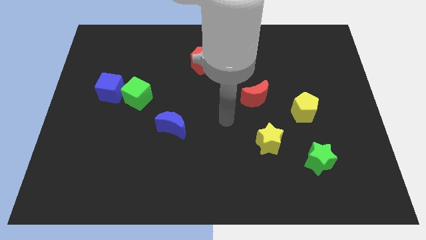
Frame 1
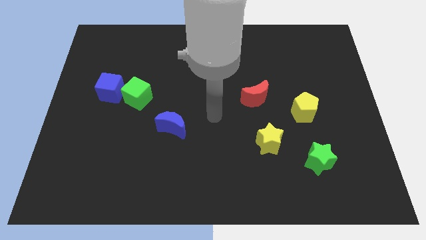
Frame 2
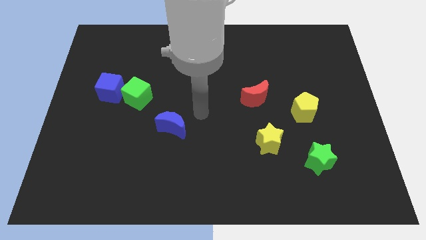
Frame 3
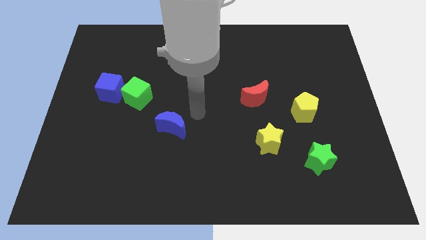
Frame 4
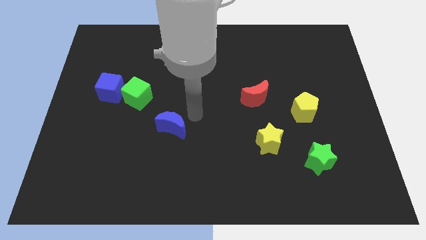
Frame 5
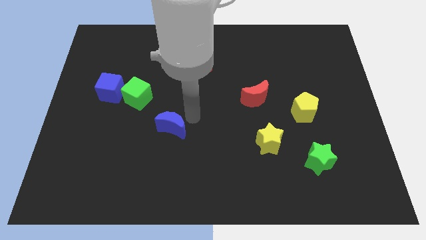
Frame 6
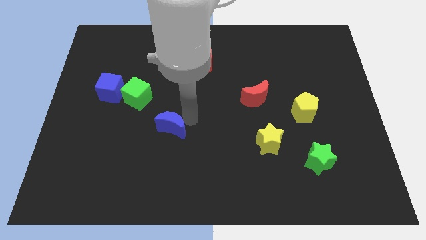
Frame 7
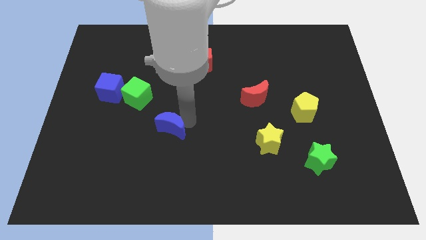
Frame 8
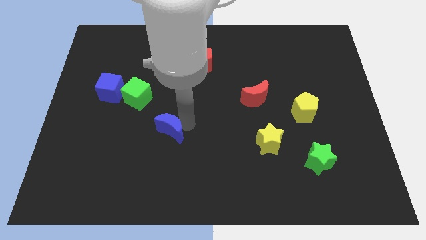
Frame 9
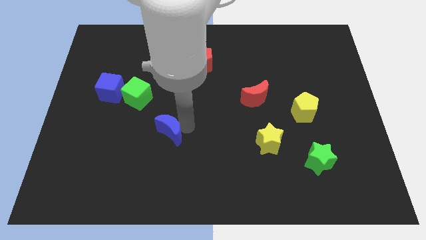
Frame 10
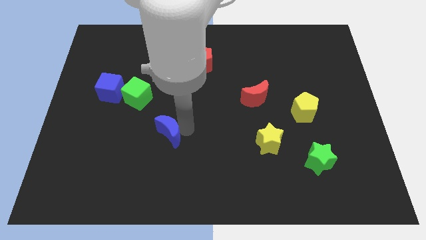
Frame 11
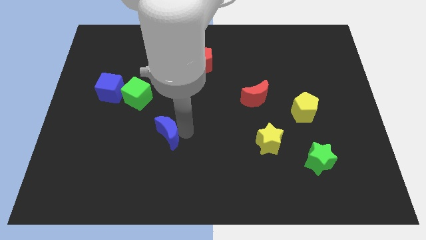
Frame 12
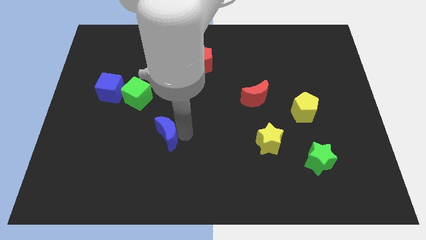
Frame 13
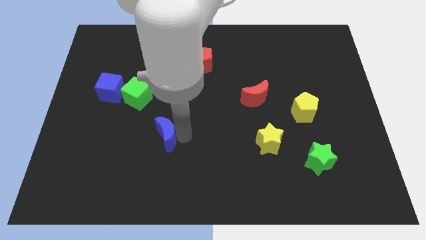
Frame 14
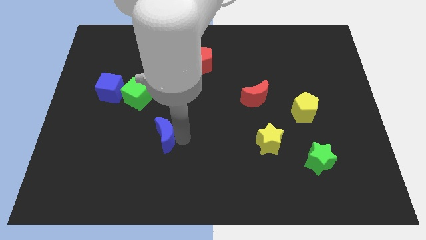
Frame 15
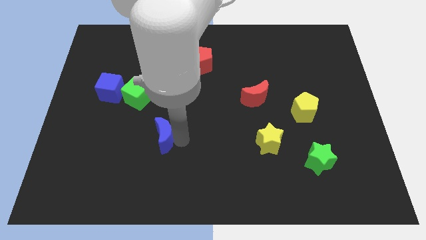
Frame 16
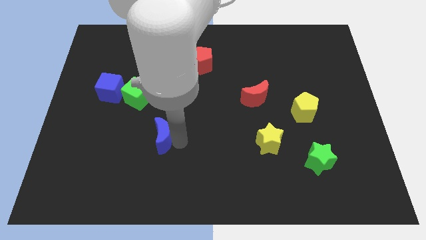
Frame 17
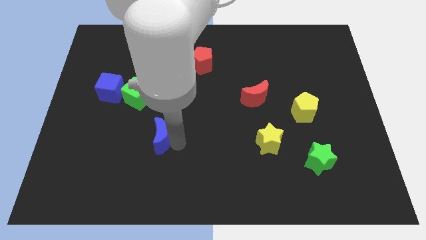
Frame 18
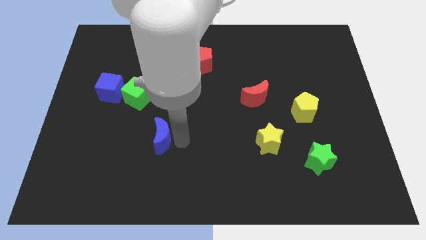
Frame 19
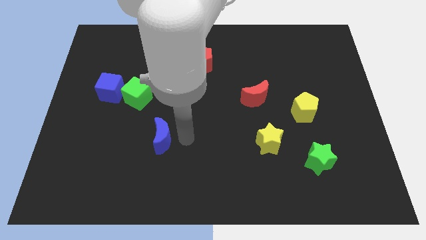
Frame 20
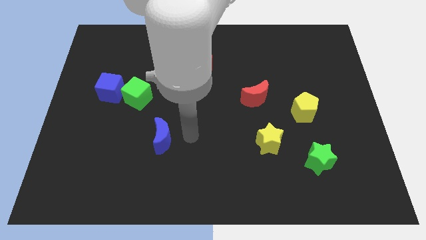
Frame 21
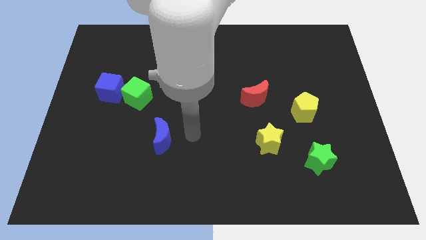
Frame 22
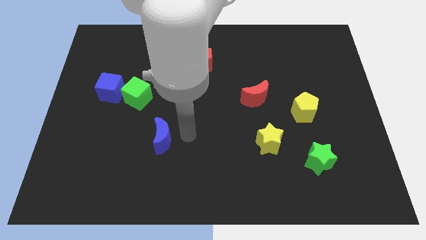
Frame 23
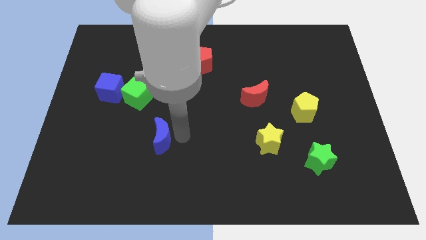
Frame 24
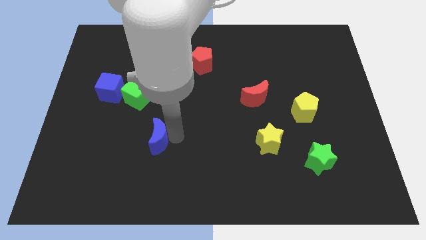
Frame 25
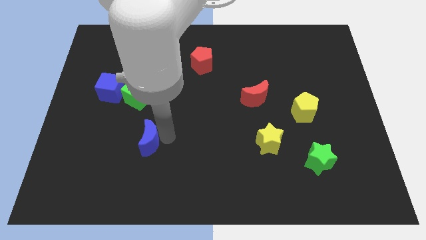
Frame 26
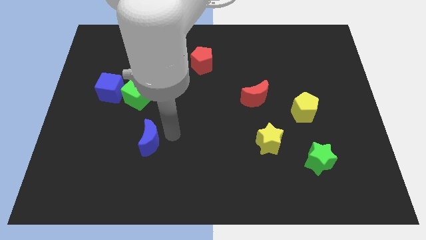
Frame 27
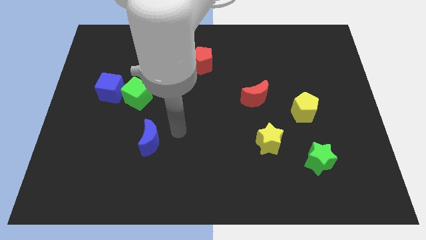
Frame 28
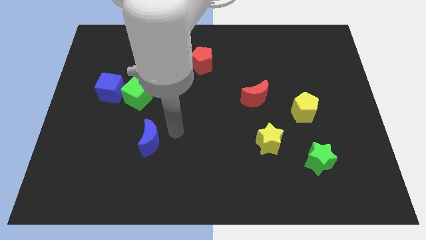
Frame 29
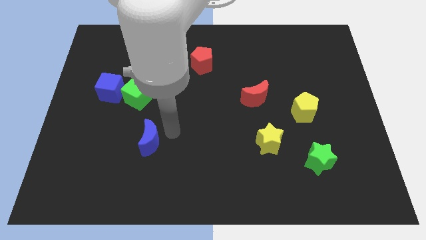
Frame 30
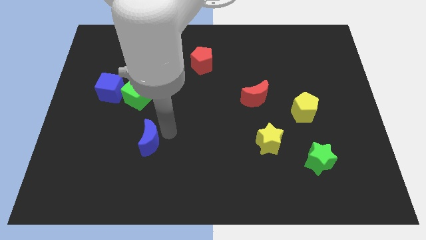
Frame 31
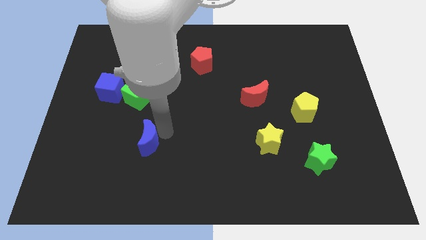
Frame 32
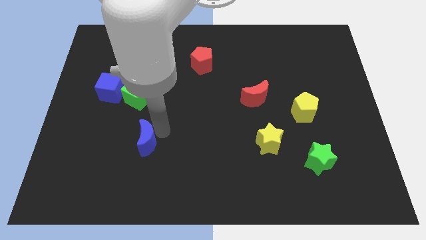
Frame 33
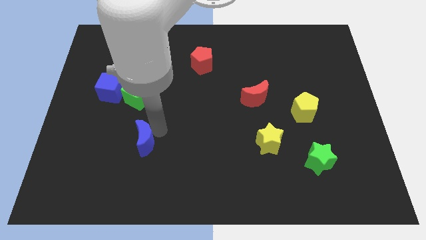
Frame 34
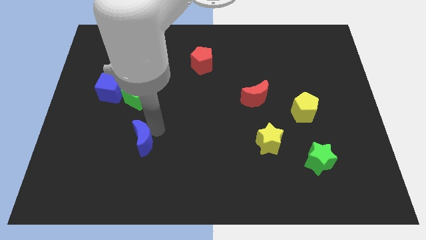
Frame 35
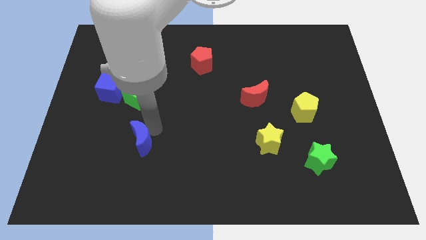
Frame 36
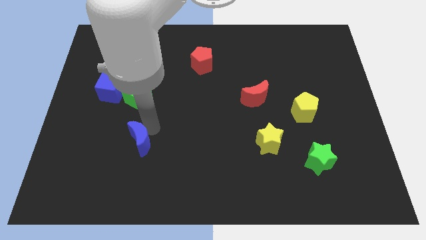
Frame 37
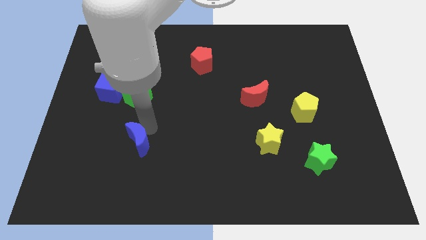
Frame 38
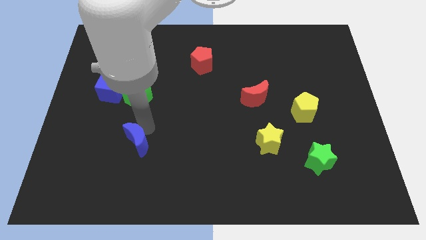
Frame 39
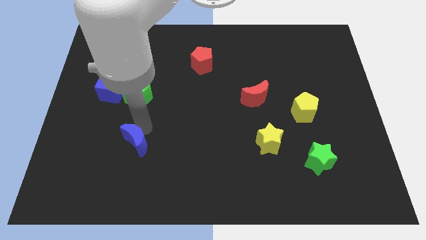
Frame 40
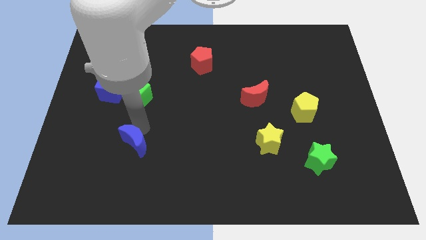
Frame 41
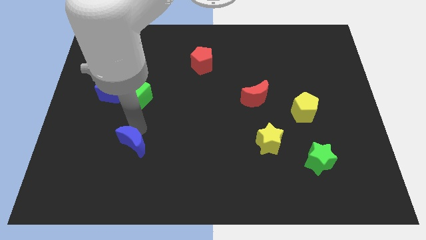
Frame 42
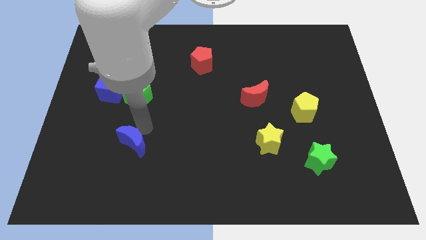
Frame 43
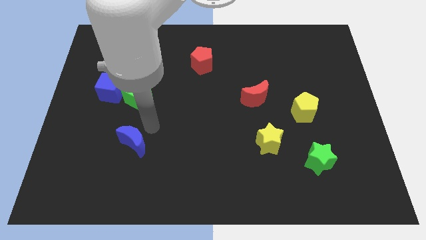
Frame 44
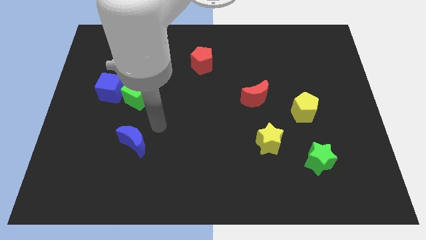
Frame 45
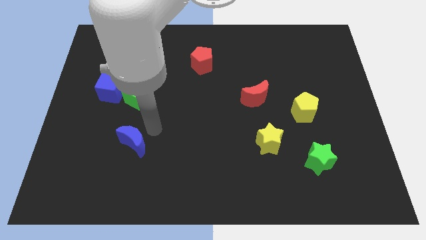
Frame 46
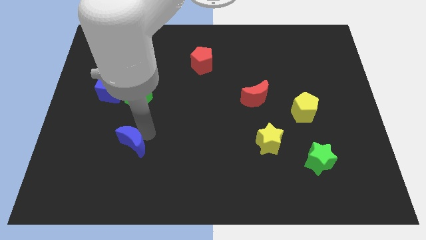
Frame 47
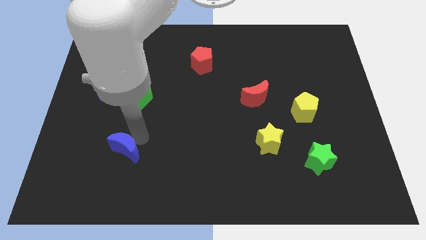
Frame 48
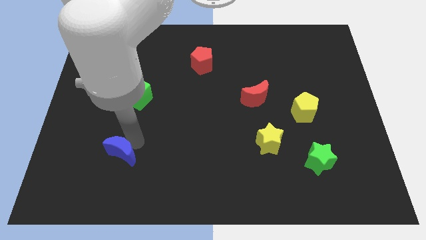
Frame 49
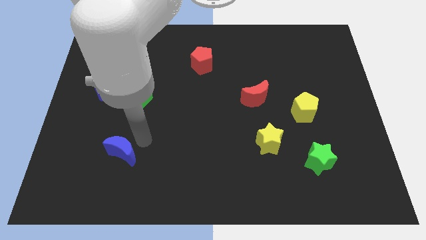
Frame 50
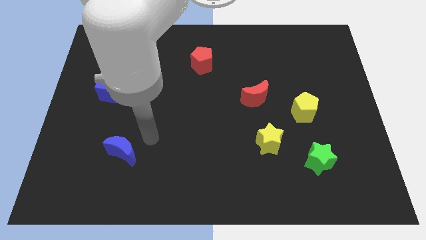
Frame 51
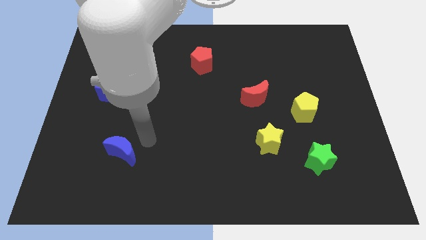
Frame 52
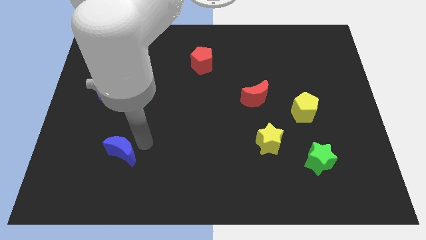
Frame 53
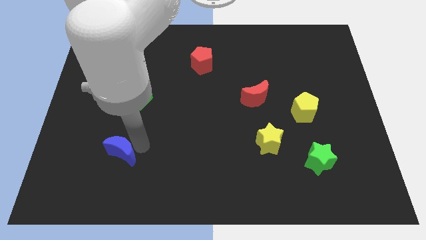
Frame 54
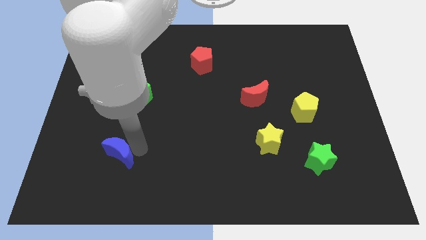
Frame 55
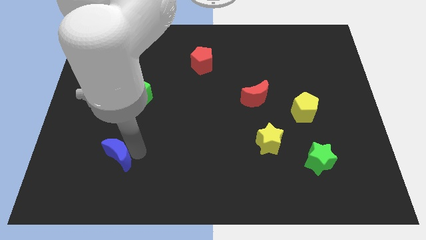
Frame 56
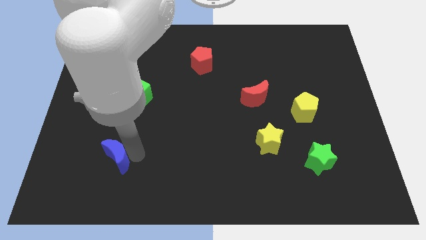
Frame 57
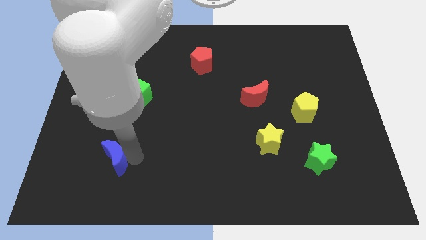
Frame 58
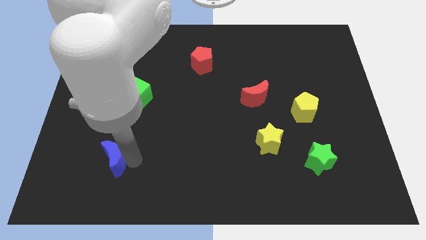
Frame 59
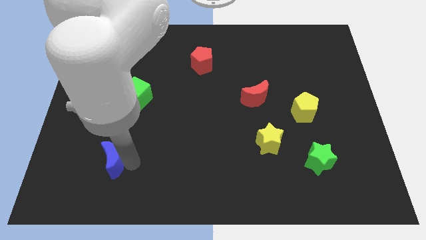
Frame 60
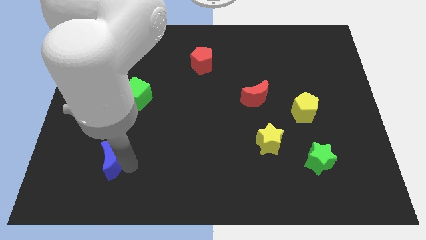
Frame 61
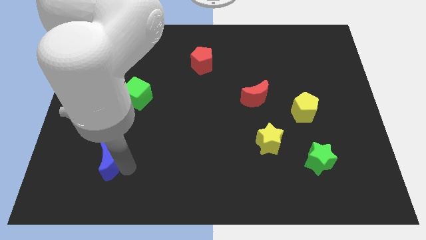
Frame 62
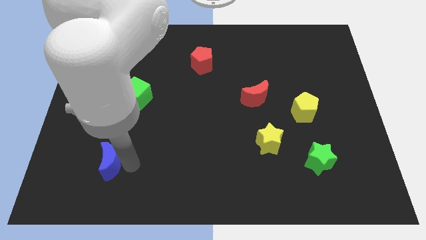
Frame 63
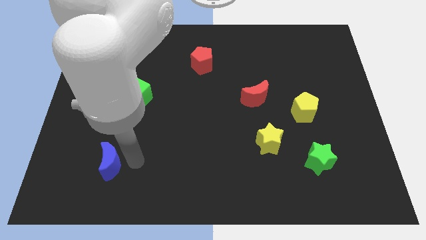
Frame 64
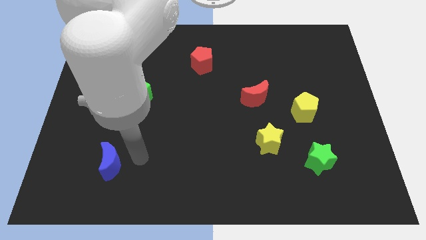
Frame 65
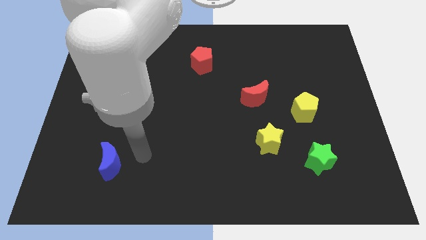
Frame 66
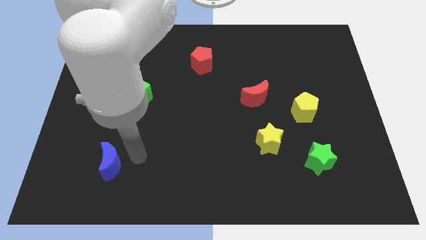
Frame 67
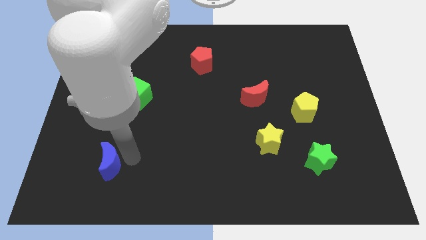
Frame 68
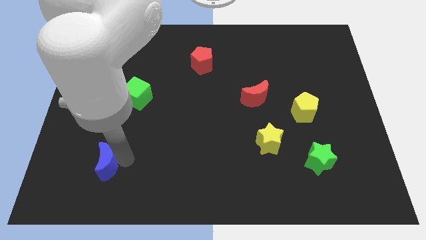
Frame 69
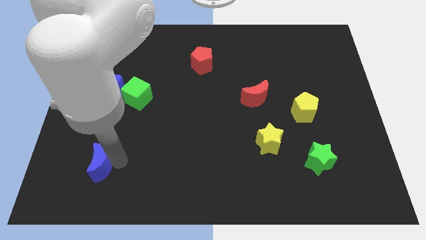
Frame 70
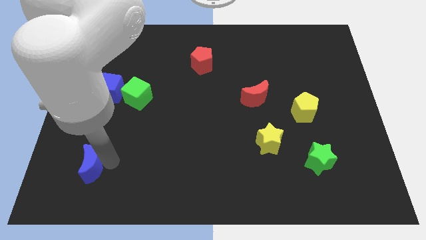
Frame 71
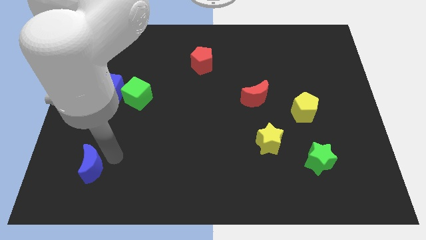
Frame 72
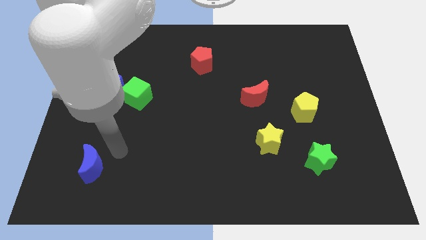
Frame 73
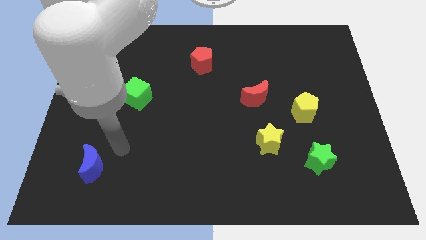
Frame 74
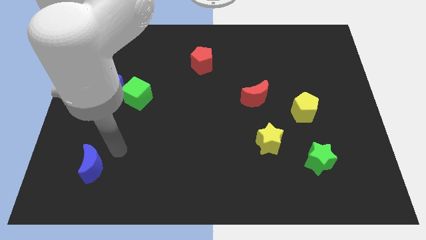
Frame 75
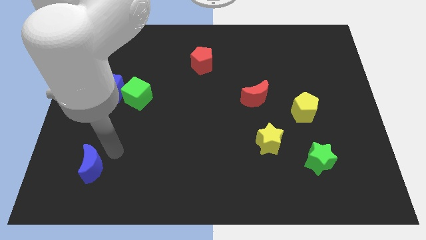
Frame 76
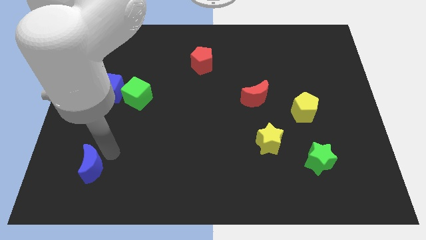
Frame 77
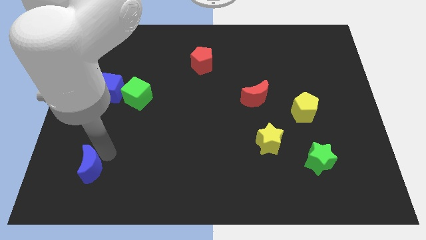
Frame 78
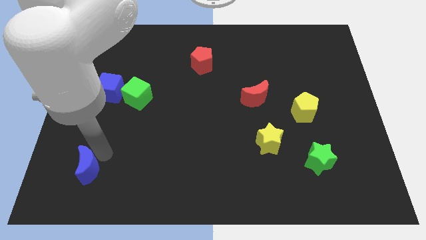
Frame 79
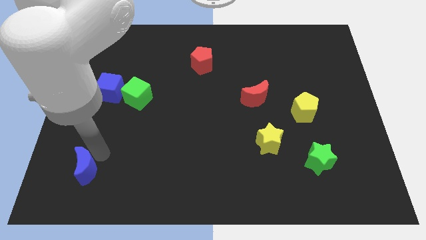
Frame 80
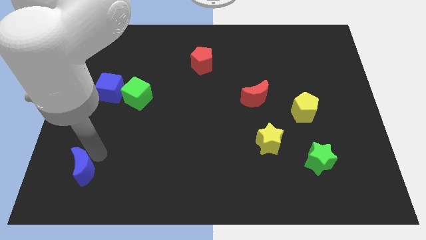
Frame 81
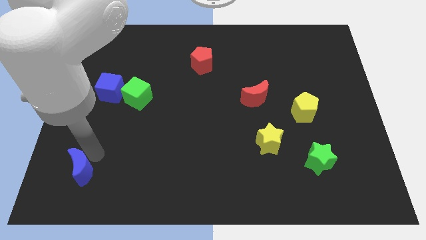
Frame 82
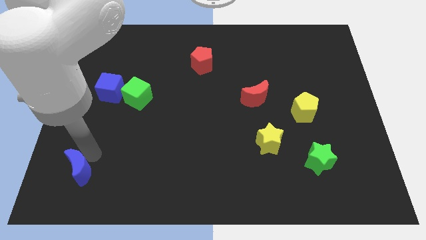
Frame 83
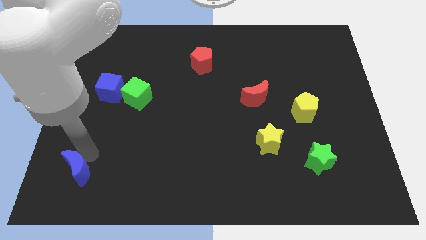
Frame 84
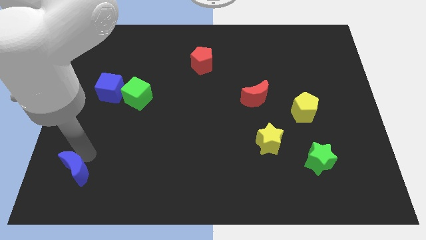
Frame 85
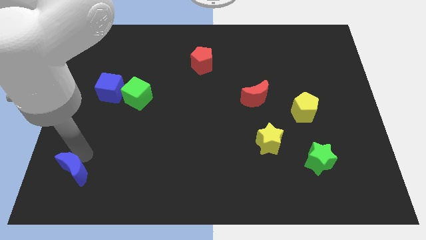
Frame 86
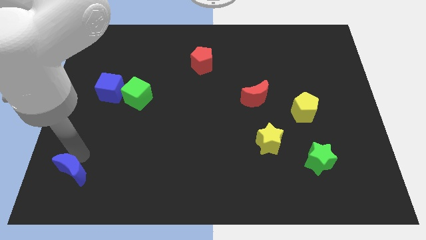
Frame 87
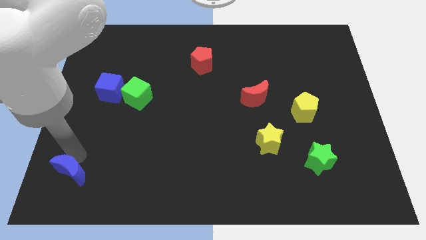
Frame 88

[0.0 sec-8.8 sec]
put the blue moon to the bottom left
